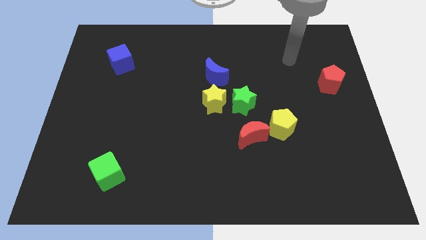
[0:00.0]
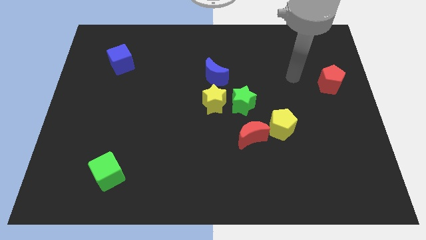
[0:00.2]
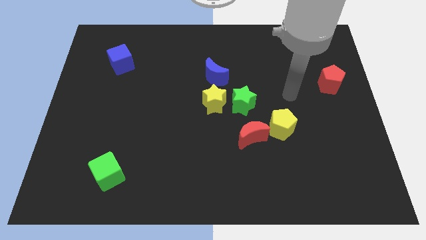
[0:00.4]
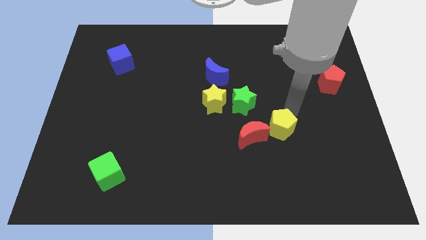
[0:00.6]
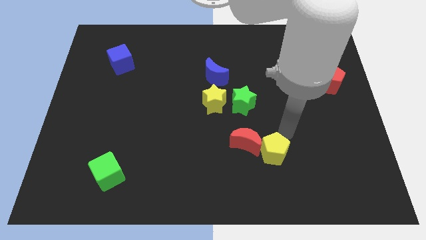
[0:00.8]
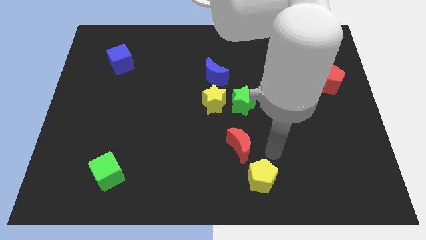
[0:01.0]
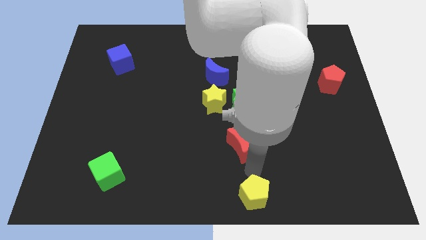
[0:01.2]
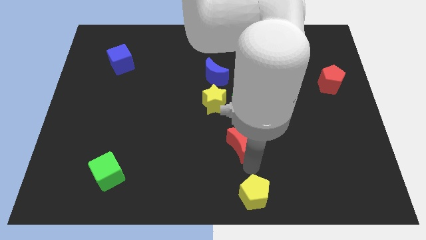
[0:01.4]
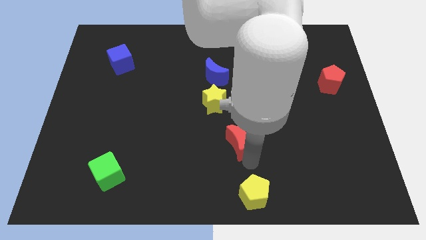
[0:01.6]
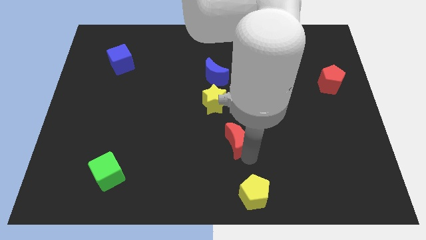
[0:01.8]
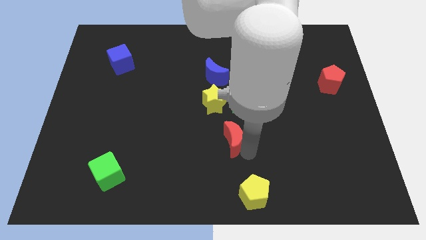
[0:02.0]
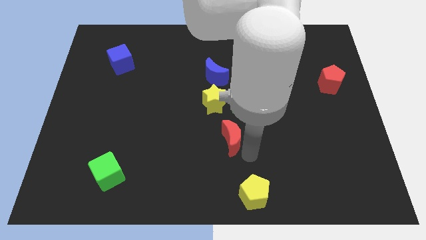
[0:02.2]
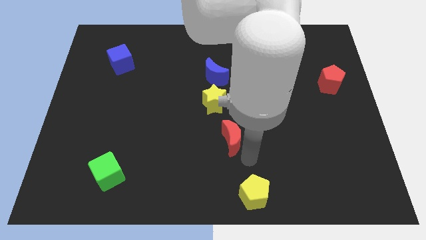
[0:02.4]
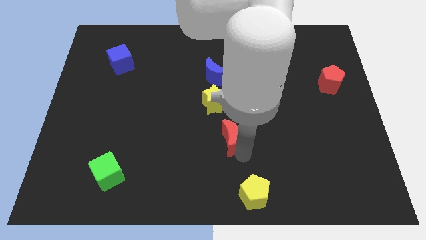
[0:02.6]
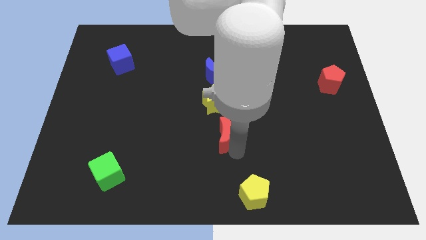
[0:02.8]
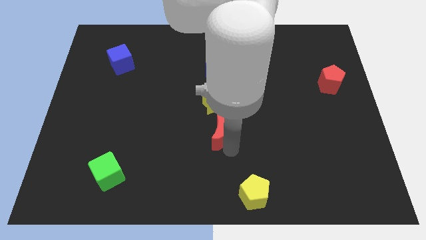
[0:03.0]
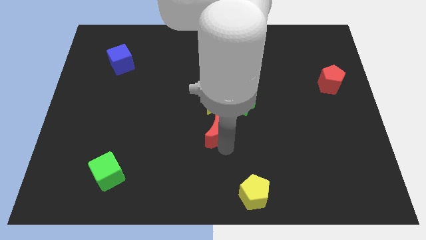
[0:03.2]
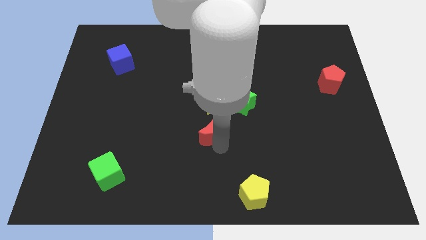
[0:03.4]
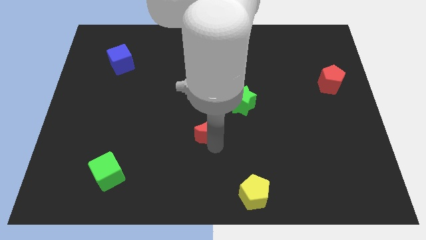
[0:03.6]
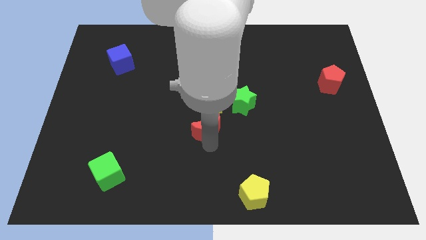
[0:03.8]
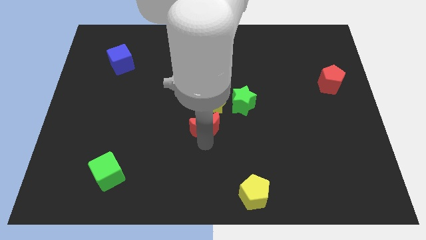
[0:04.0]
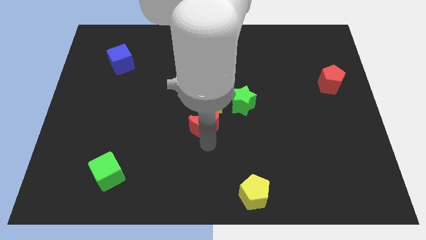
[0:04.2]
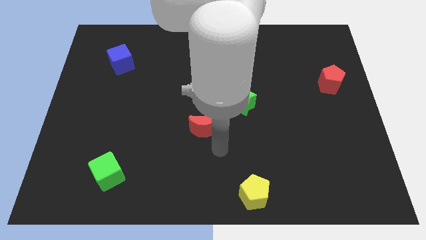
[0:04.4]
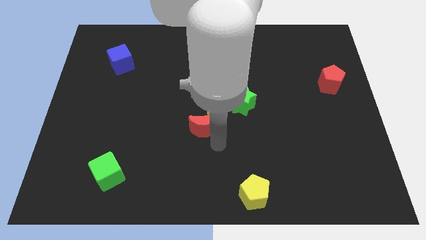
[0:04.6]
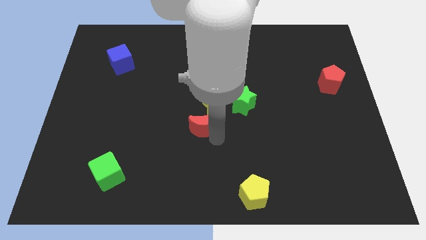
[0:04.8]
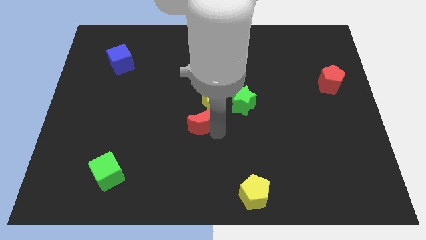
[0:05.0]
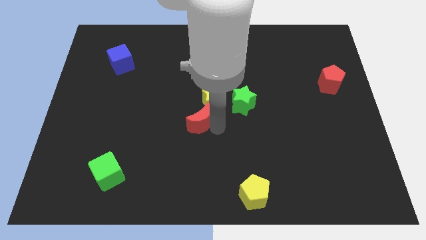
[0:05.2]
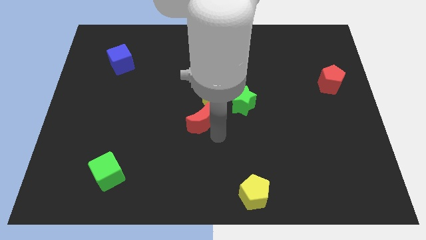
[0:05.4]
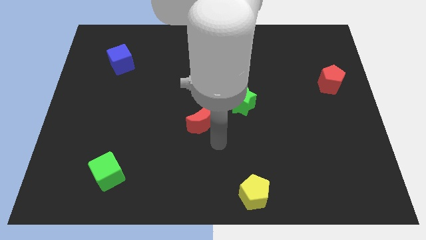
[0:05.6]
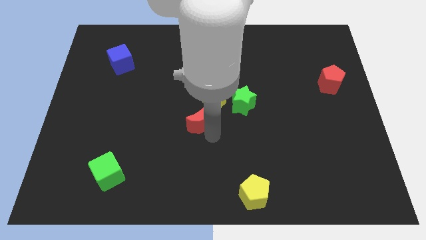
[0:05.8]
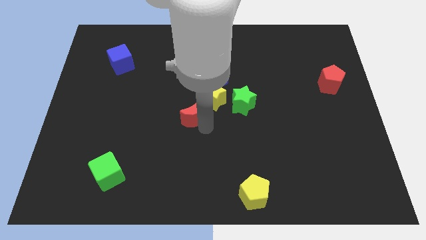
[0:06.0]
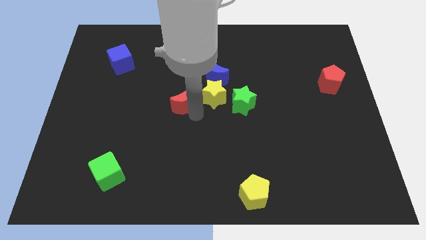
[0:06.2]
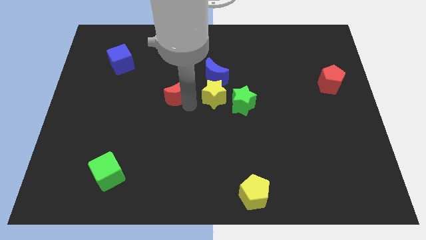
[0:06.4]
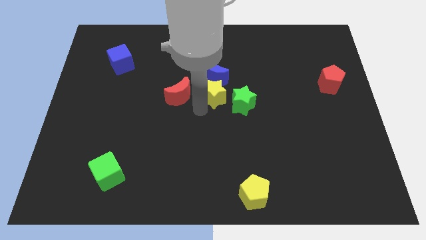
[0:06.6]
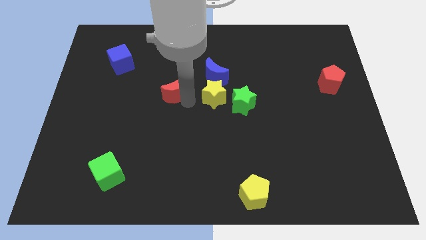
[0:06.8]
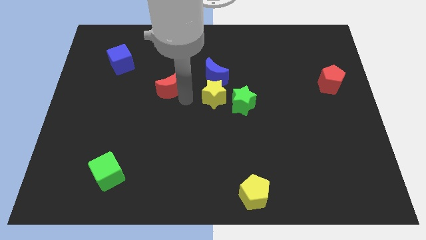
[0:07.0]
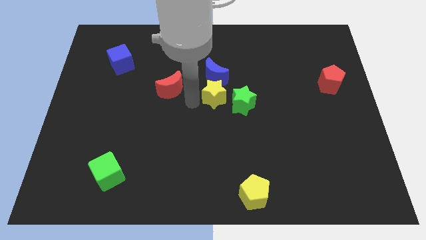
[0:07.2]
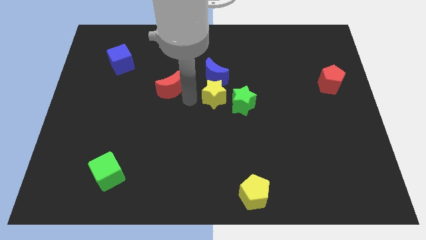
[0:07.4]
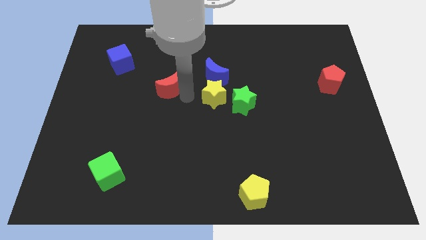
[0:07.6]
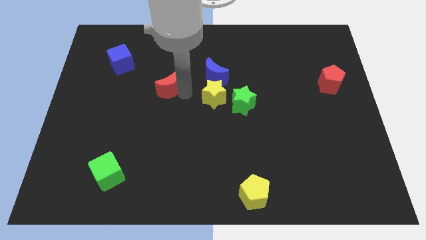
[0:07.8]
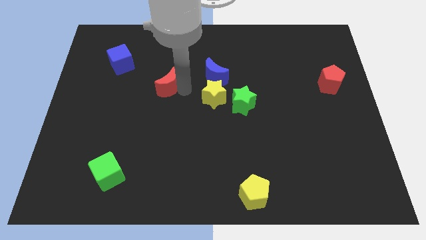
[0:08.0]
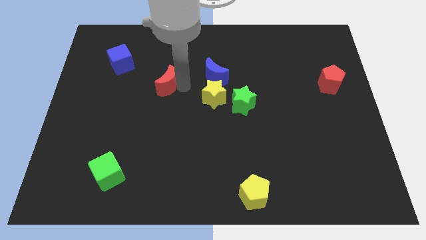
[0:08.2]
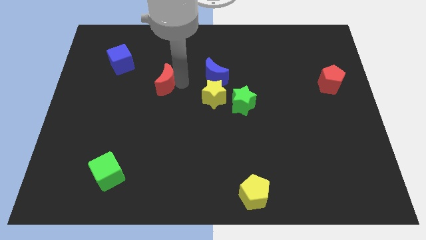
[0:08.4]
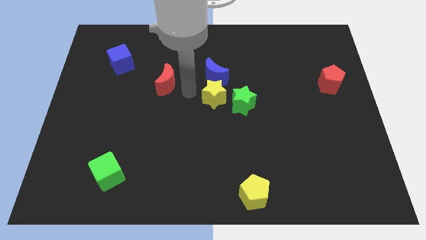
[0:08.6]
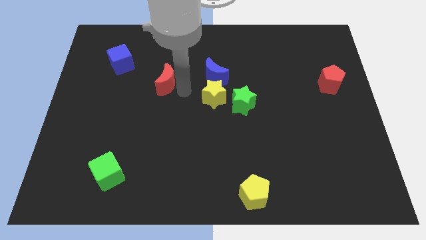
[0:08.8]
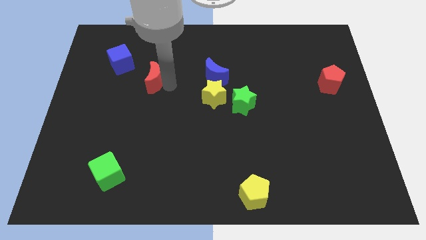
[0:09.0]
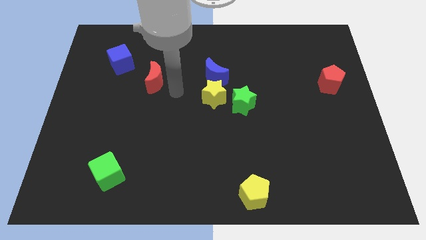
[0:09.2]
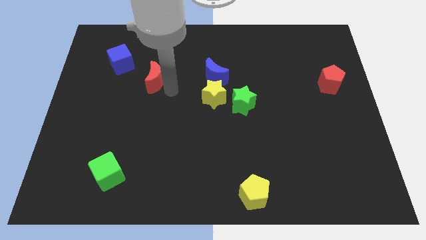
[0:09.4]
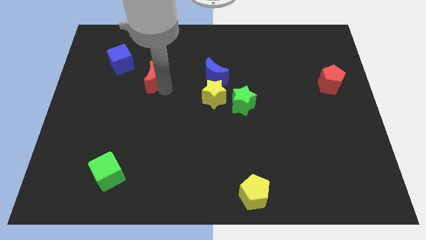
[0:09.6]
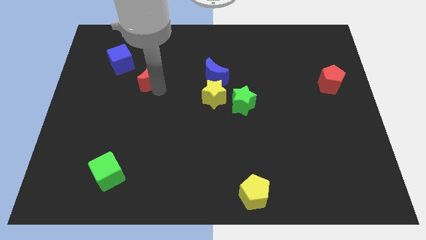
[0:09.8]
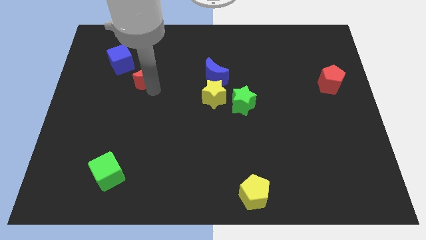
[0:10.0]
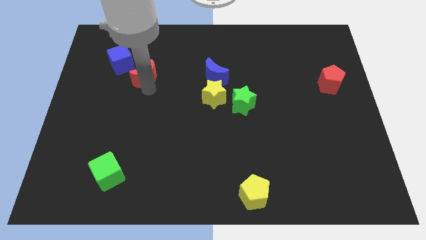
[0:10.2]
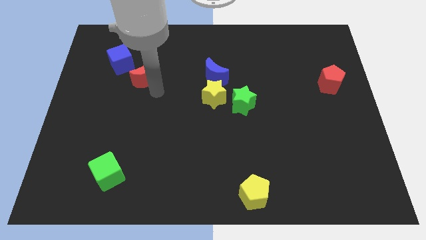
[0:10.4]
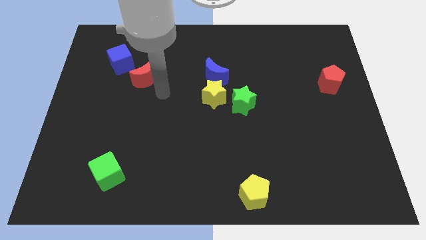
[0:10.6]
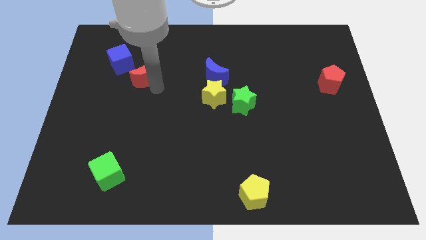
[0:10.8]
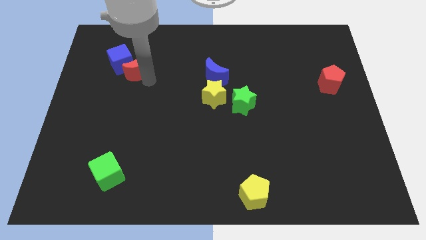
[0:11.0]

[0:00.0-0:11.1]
put the red moon next to the blue cube

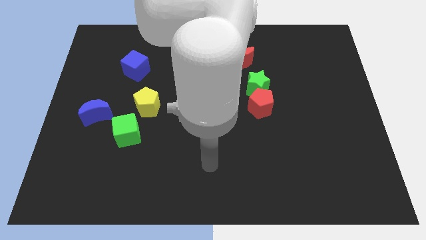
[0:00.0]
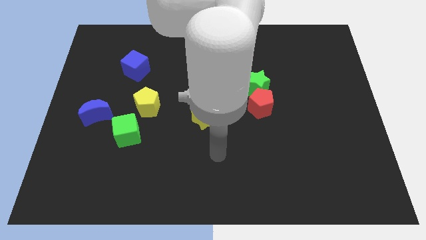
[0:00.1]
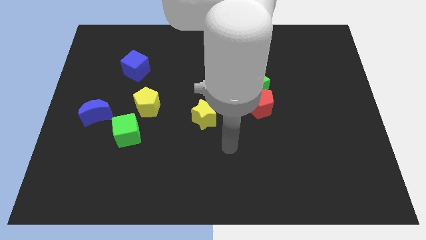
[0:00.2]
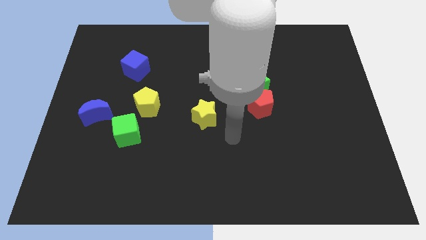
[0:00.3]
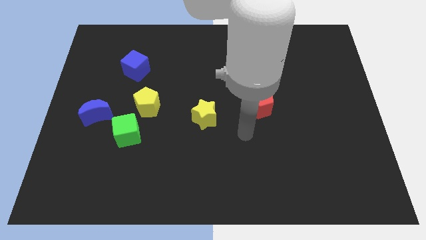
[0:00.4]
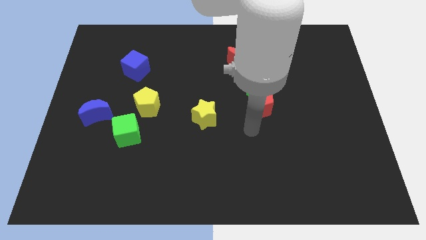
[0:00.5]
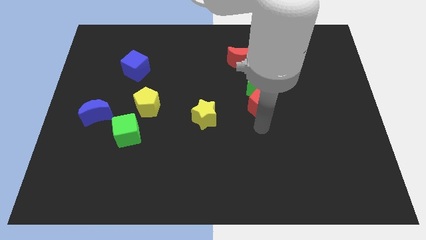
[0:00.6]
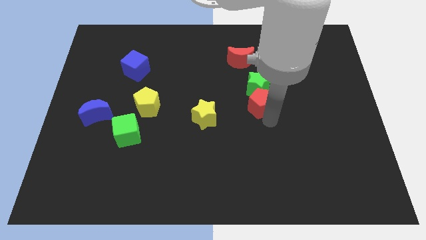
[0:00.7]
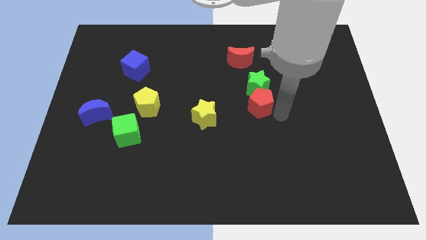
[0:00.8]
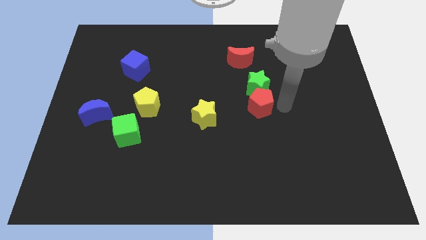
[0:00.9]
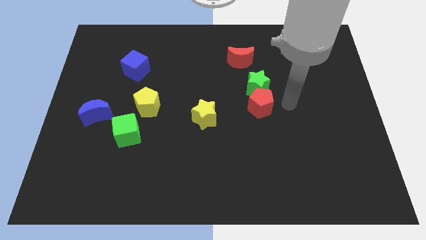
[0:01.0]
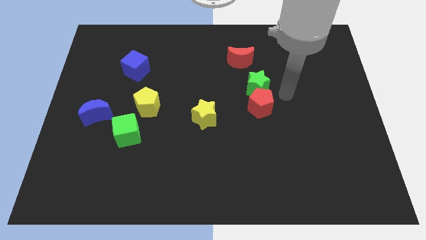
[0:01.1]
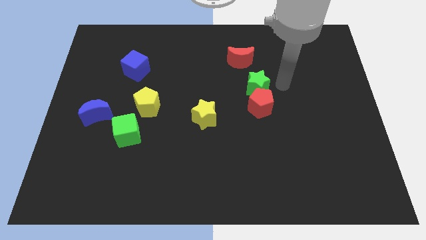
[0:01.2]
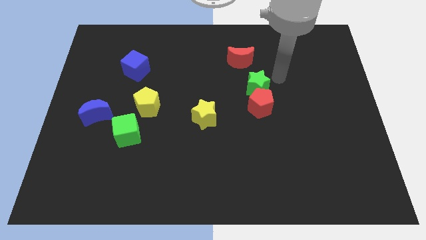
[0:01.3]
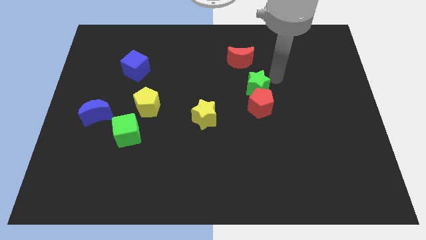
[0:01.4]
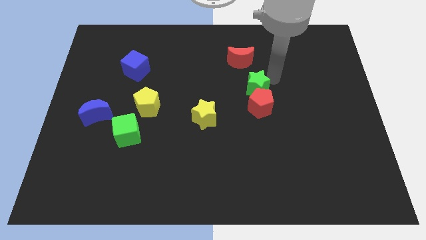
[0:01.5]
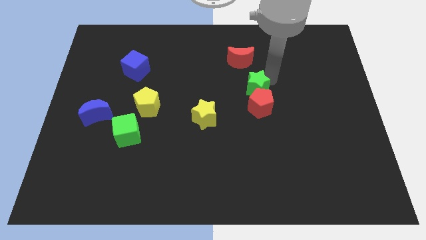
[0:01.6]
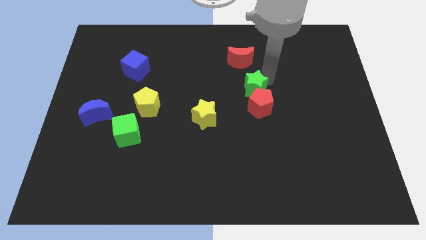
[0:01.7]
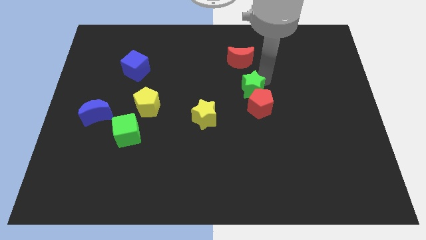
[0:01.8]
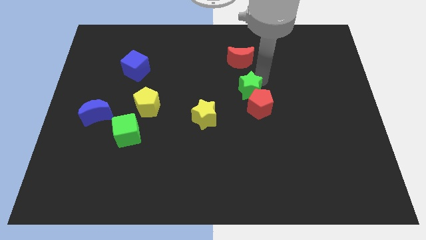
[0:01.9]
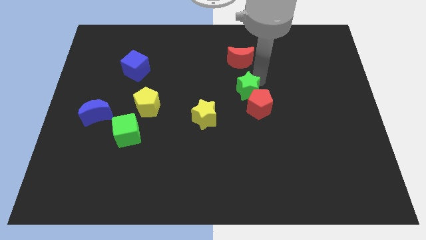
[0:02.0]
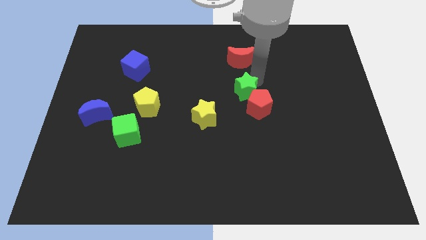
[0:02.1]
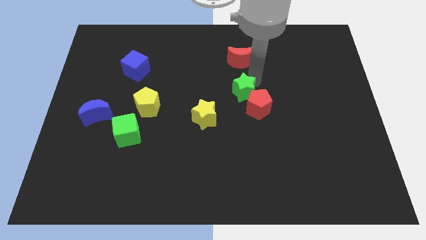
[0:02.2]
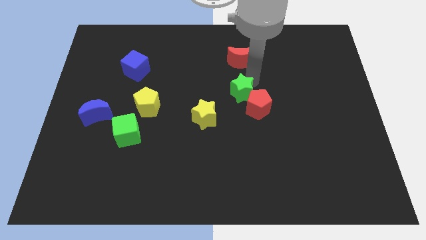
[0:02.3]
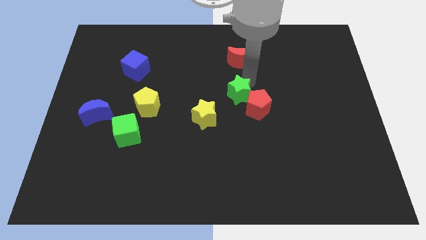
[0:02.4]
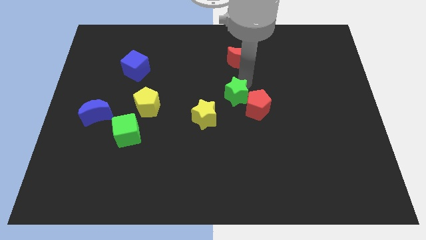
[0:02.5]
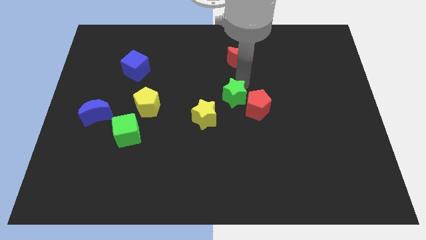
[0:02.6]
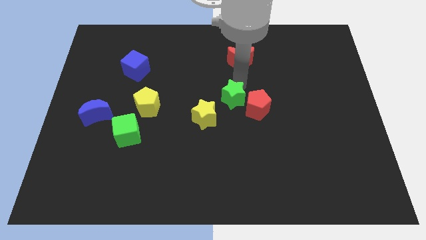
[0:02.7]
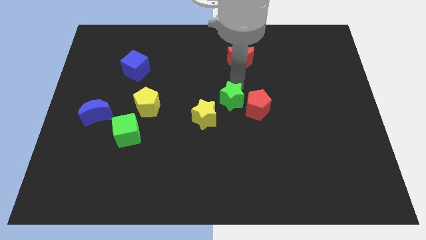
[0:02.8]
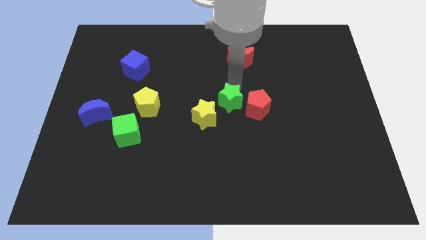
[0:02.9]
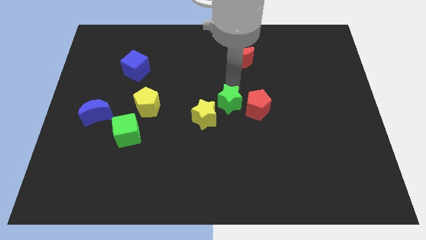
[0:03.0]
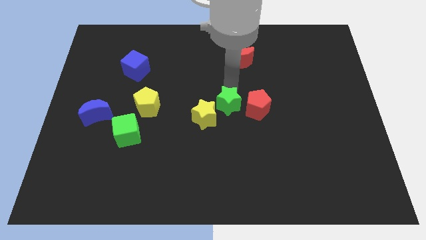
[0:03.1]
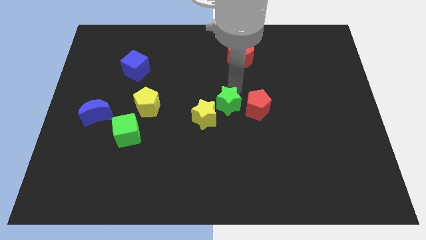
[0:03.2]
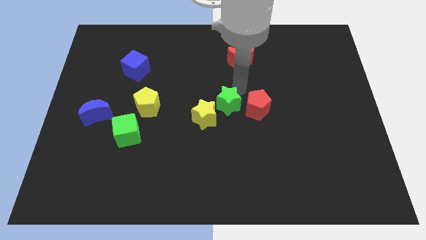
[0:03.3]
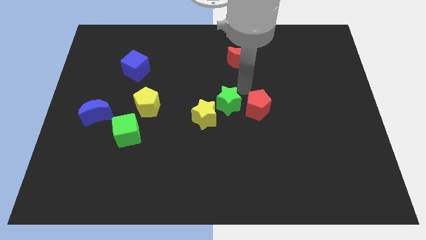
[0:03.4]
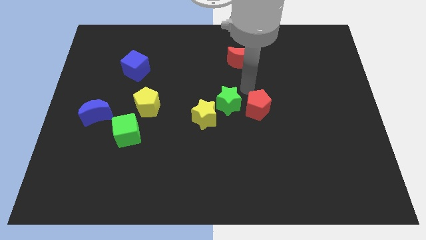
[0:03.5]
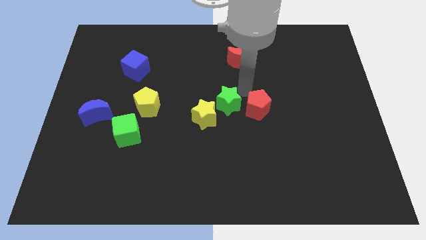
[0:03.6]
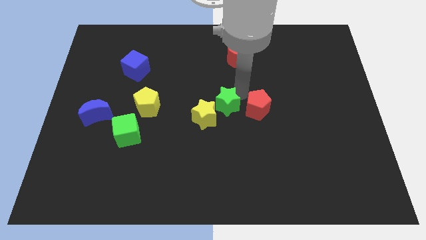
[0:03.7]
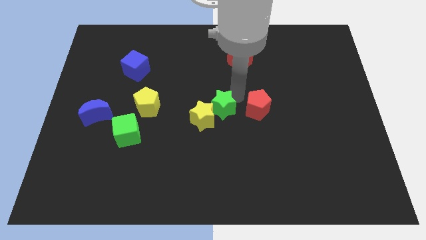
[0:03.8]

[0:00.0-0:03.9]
push the green star close to the yellow star
